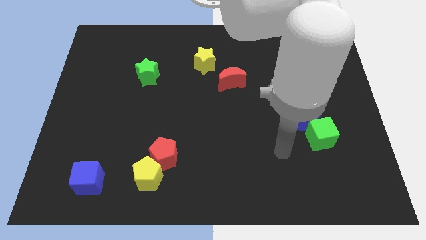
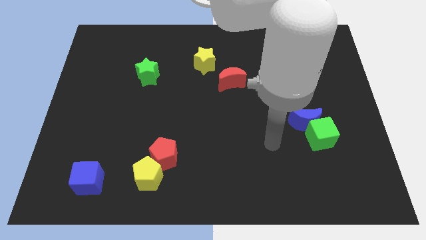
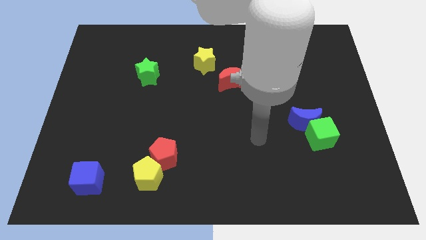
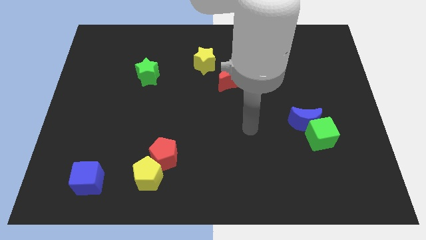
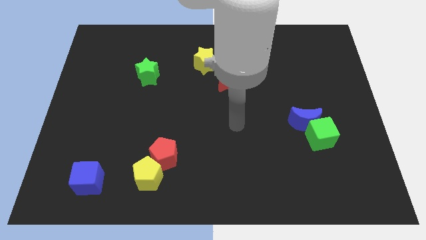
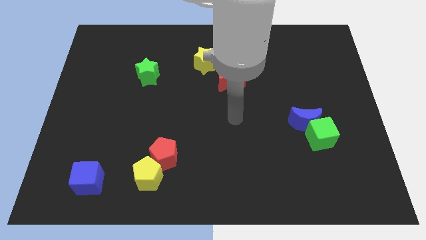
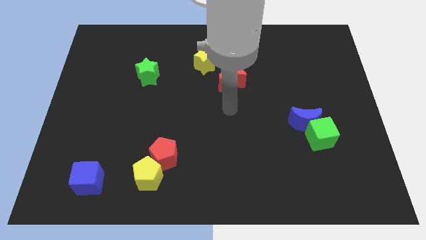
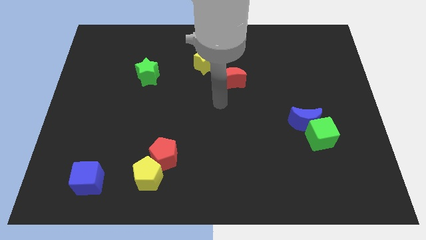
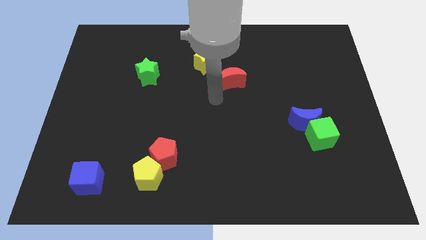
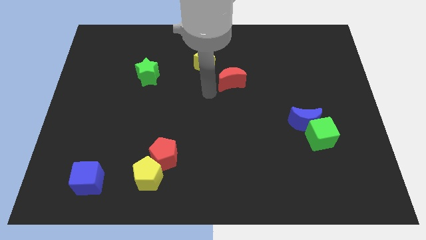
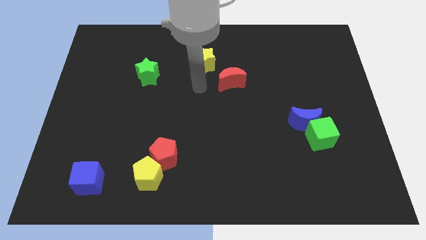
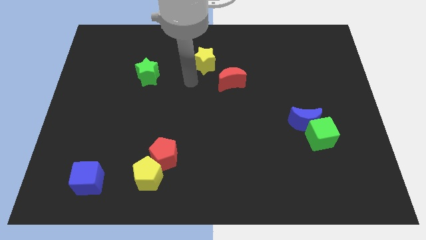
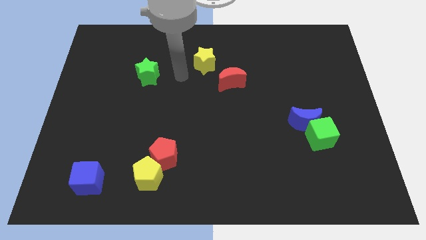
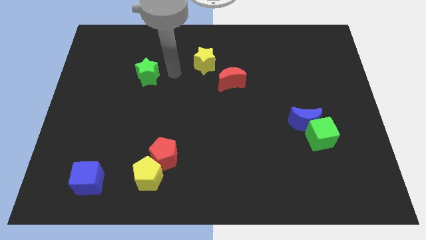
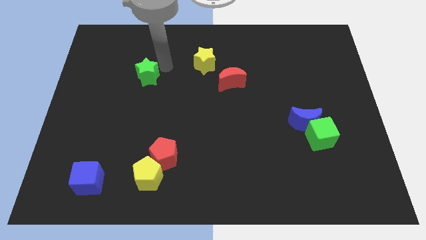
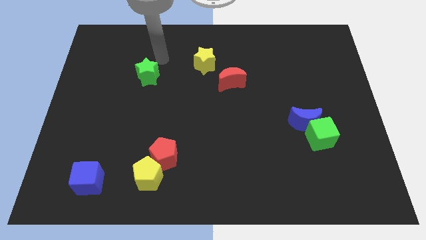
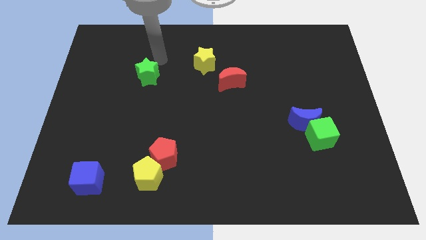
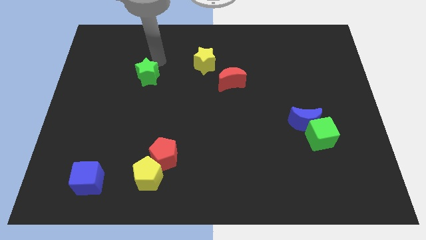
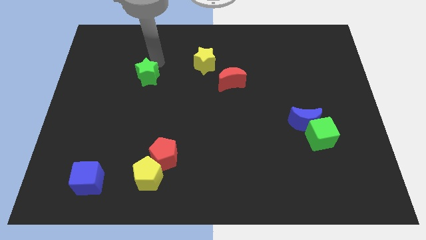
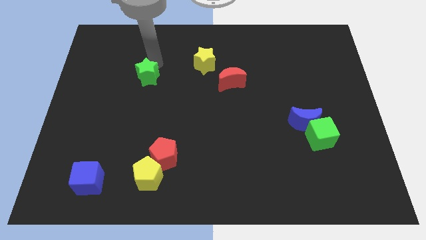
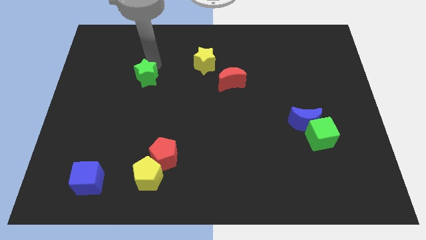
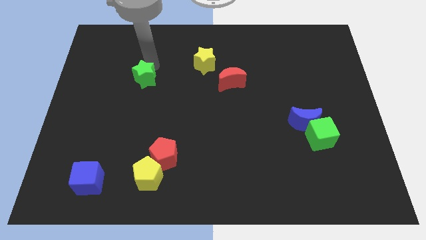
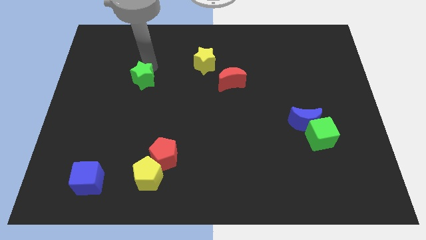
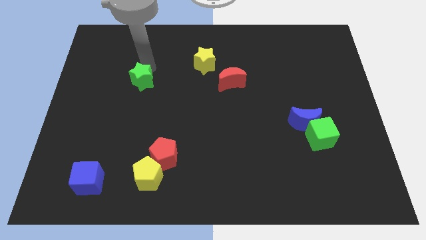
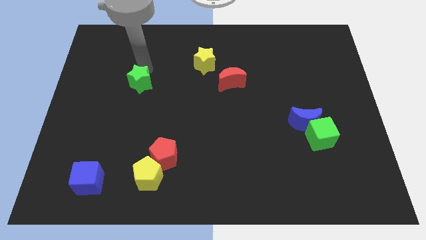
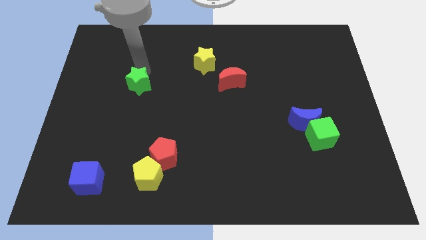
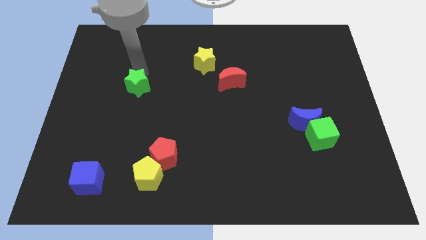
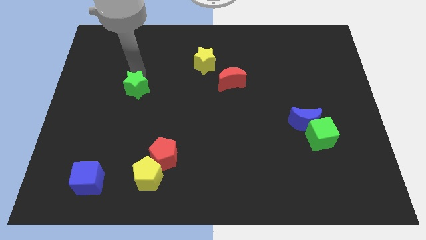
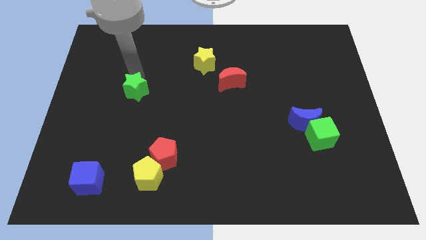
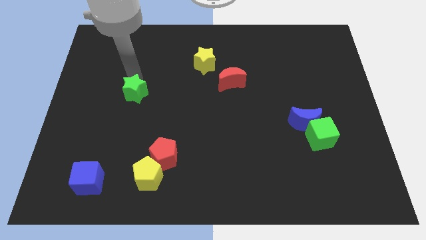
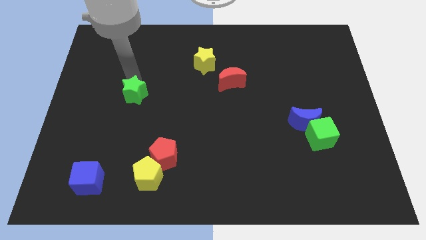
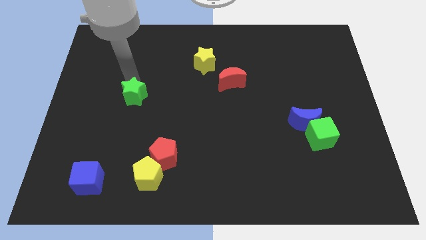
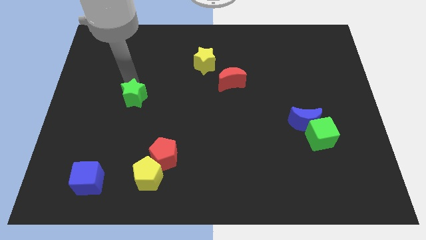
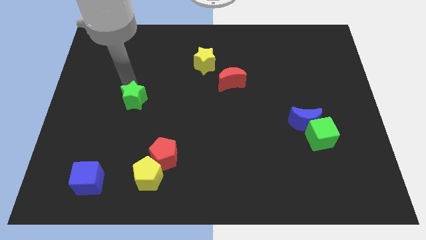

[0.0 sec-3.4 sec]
slide the green star slightly downwards

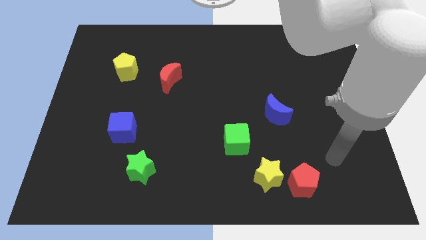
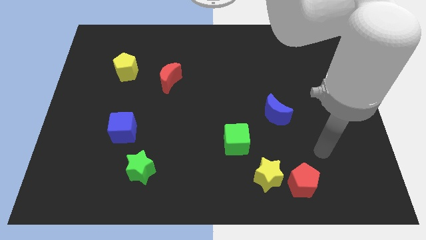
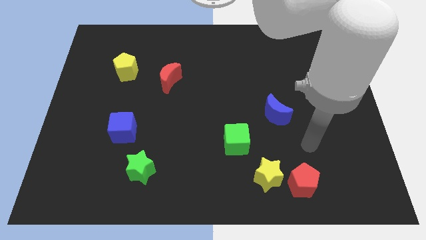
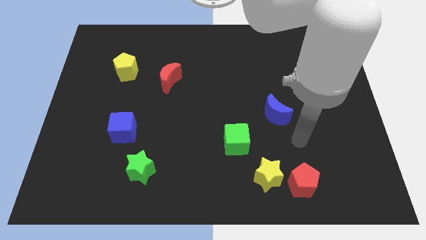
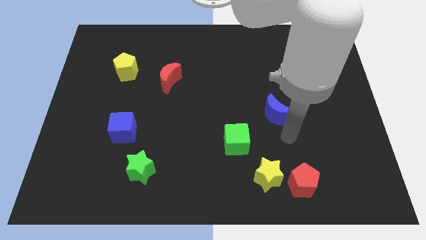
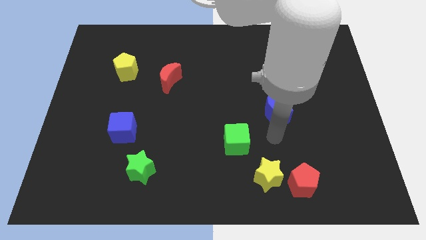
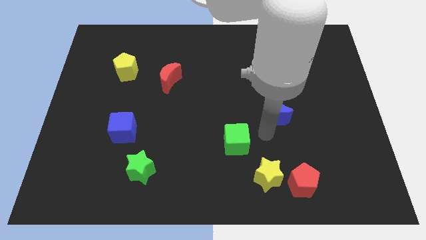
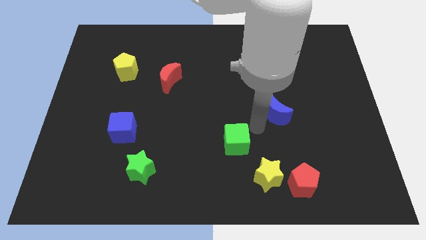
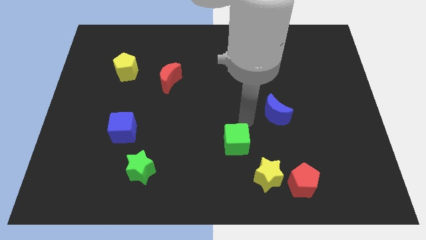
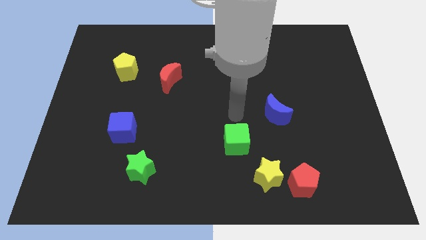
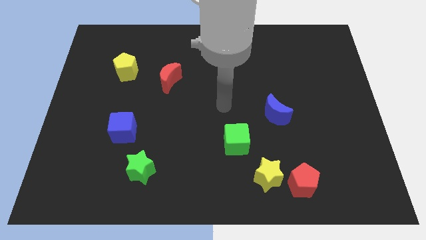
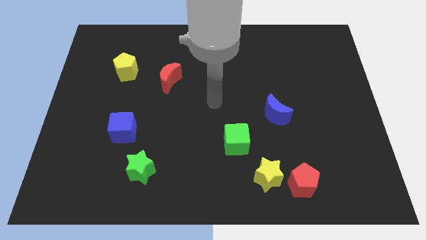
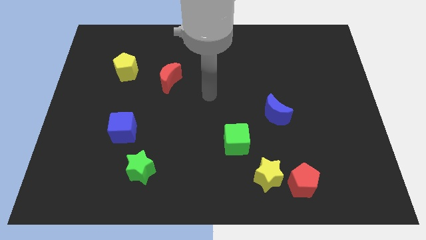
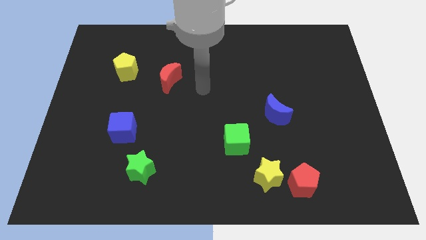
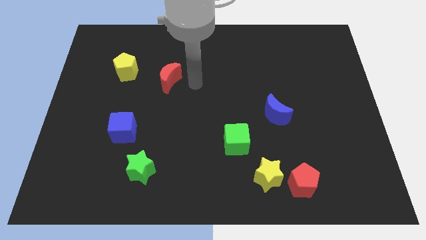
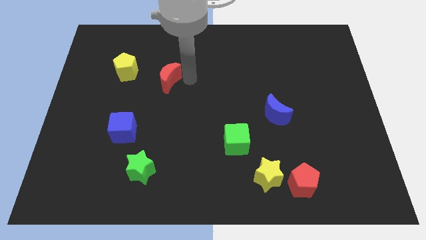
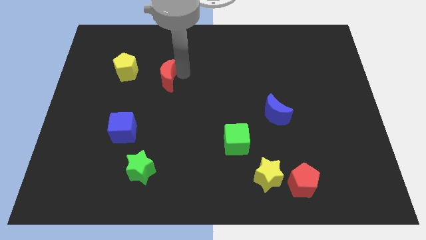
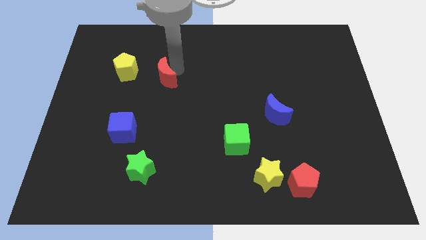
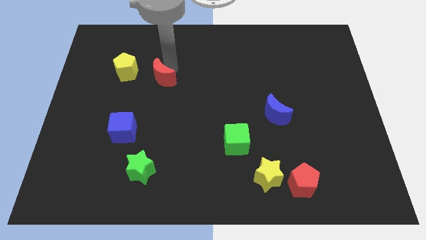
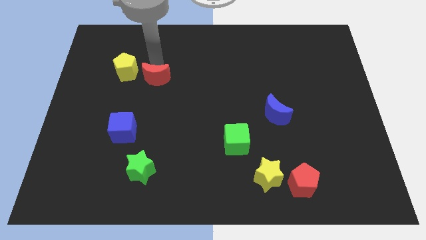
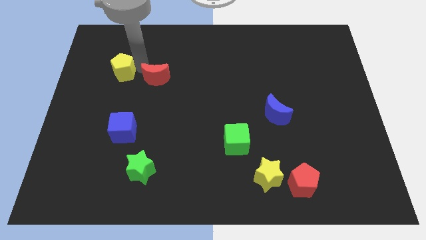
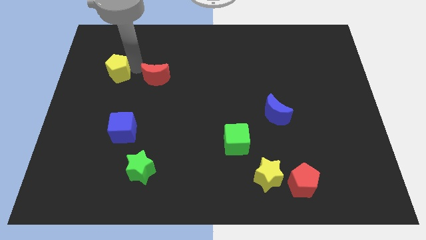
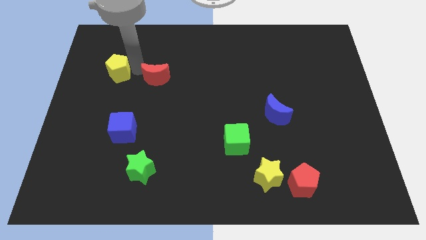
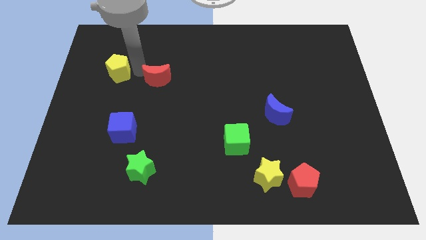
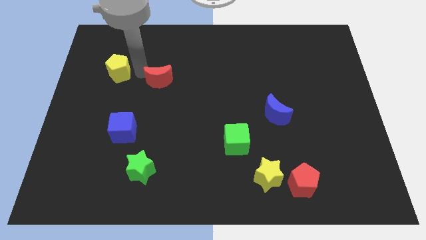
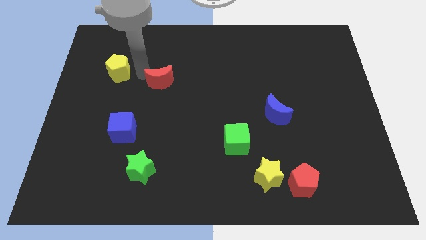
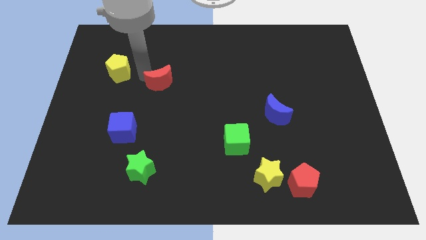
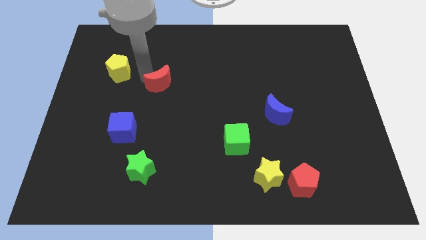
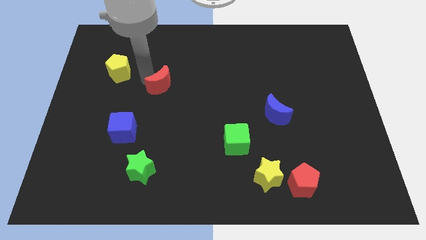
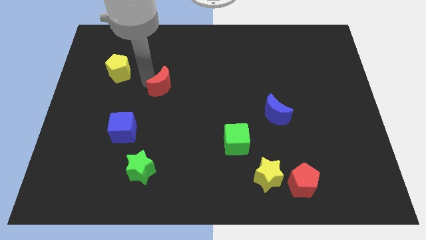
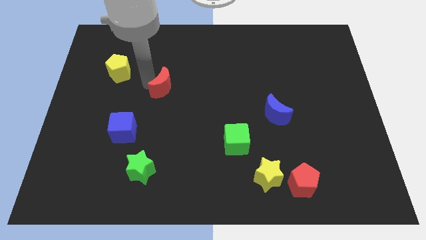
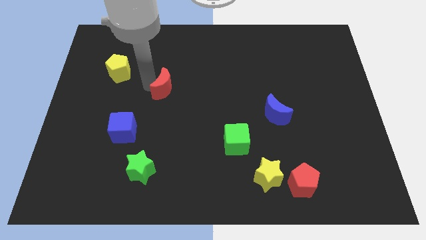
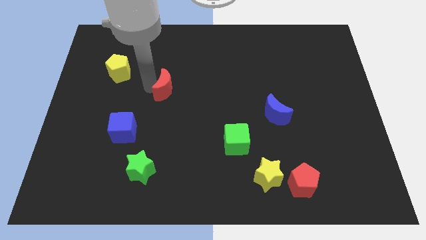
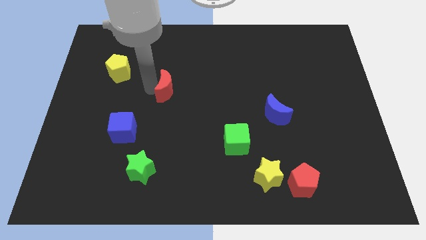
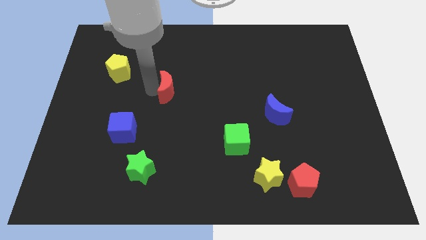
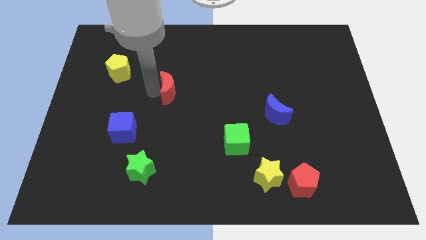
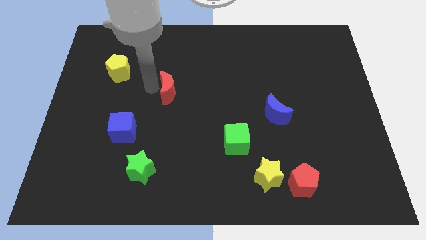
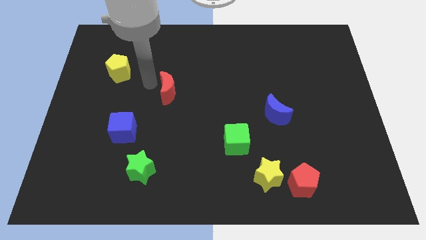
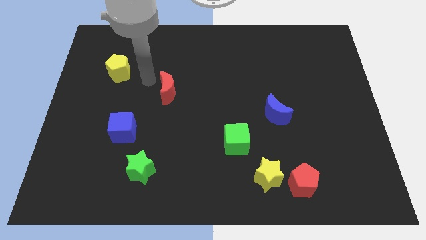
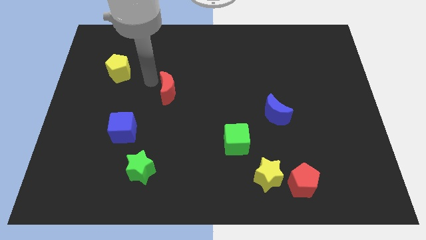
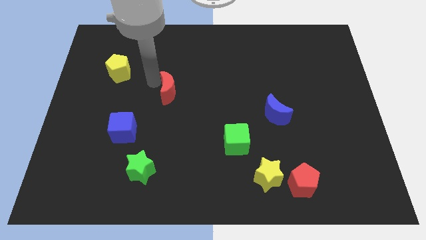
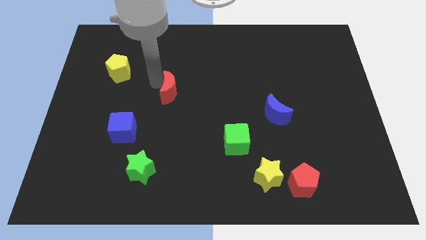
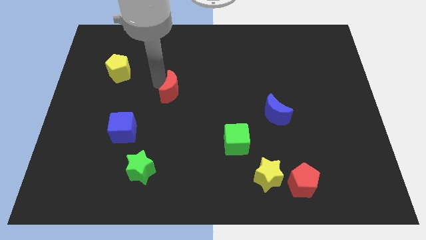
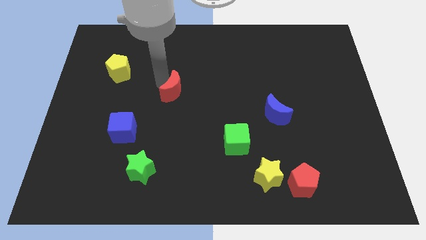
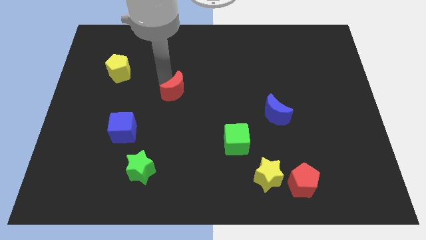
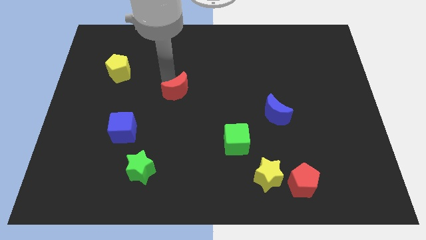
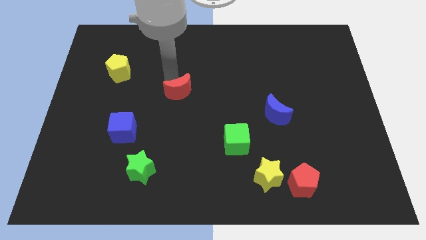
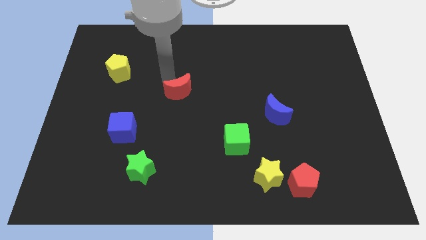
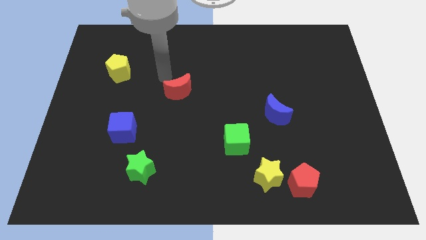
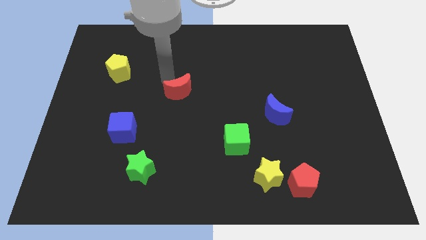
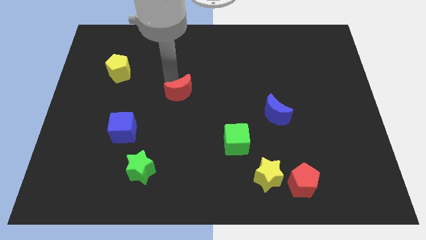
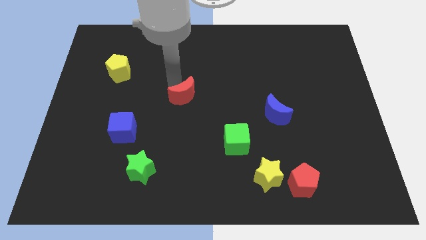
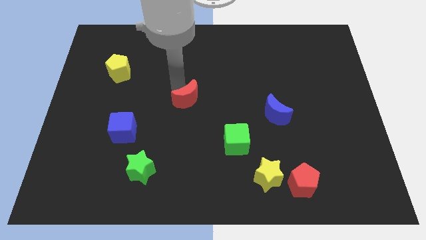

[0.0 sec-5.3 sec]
move the red moon down and to the right slightly
